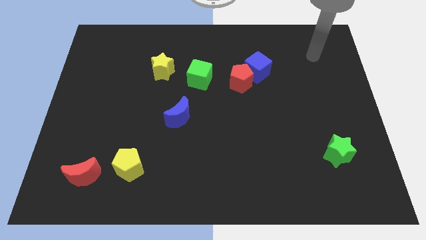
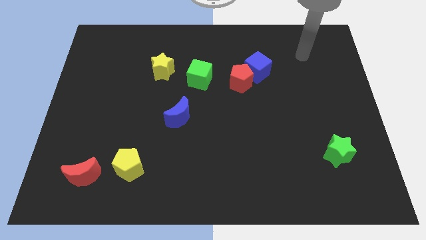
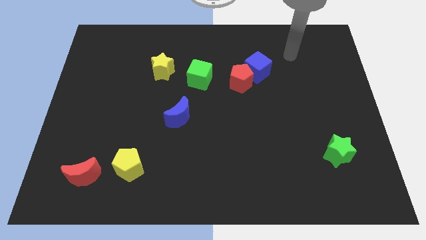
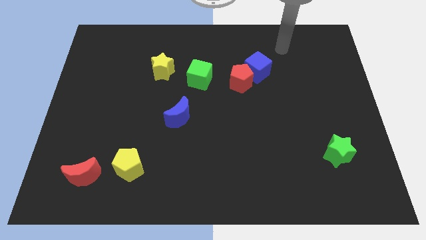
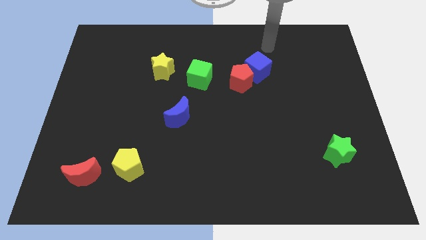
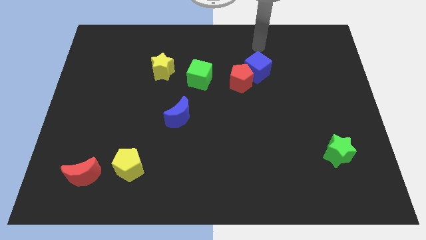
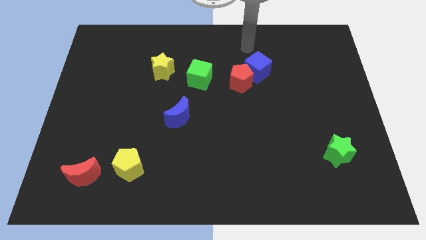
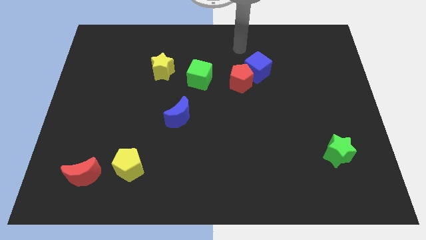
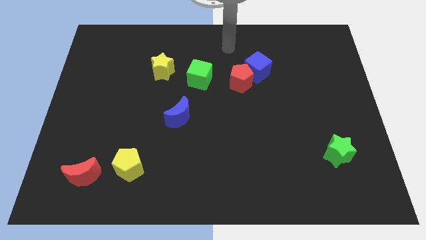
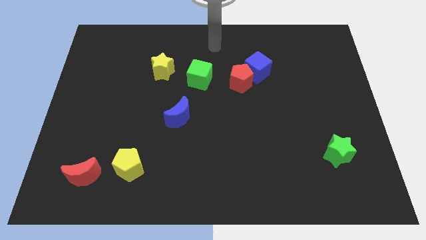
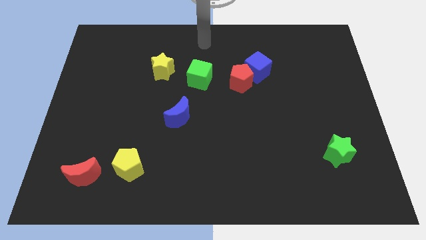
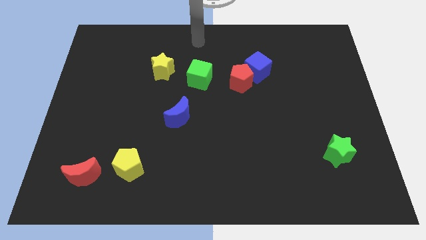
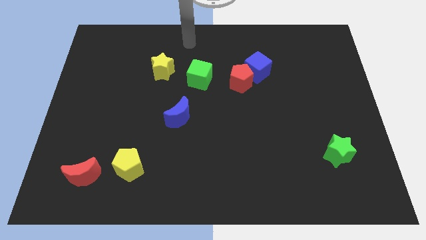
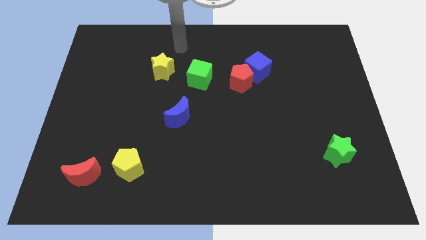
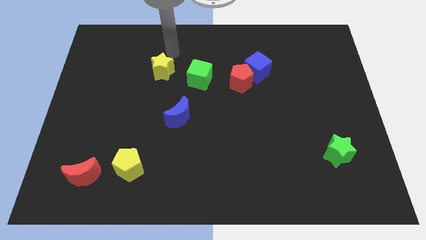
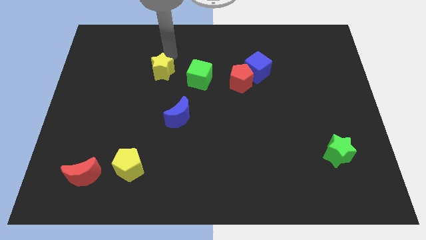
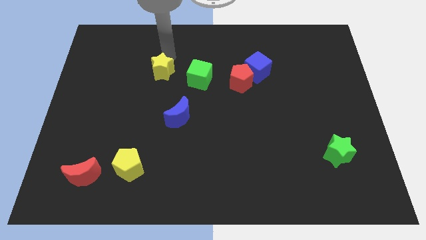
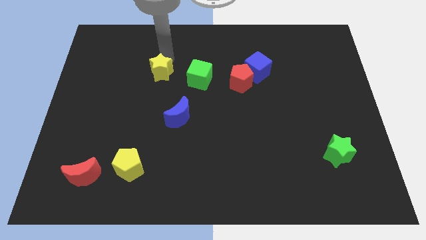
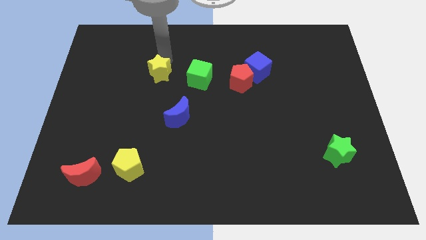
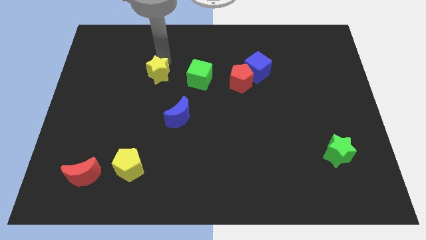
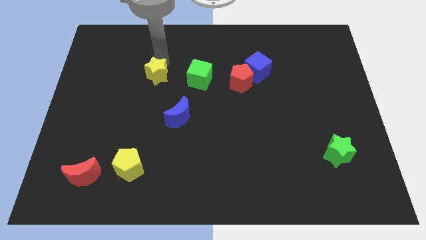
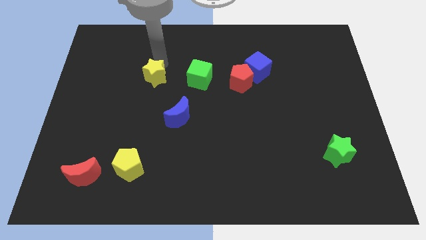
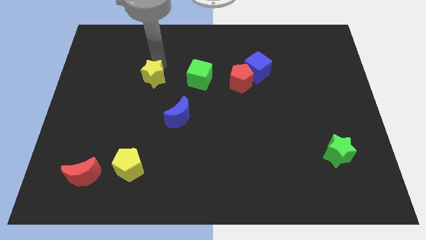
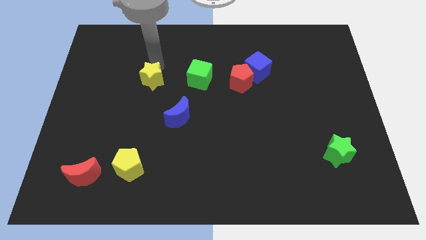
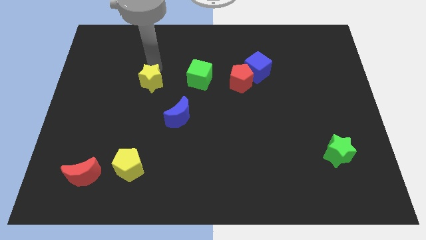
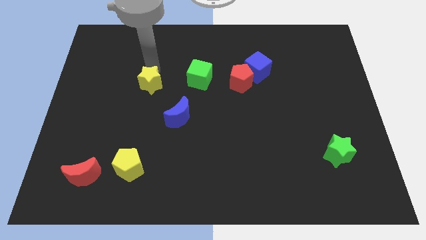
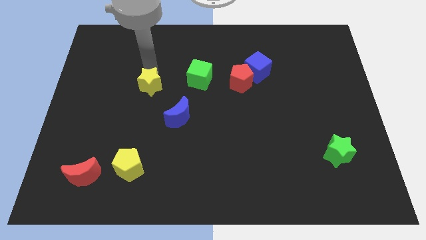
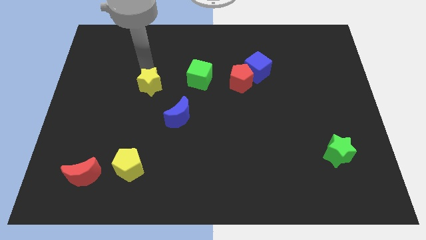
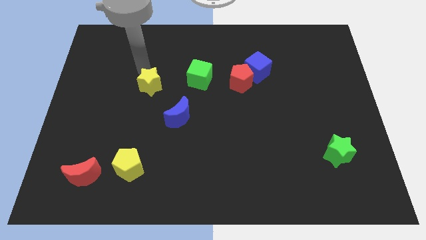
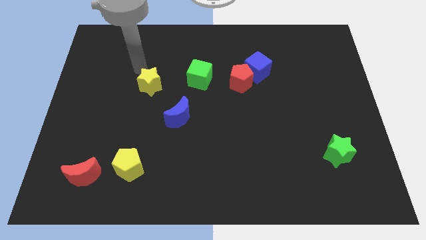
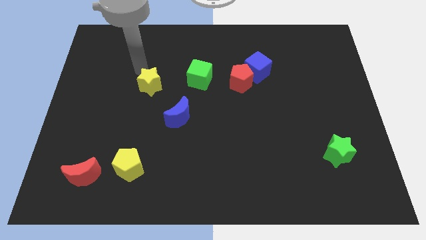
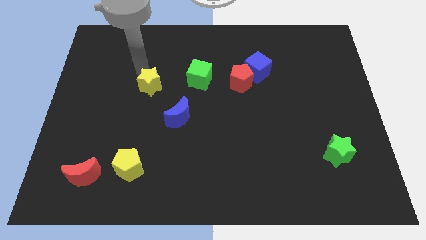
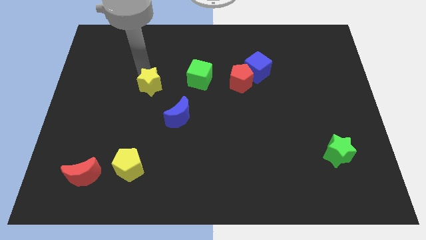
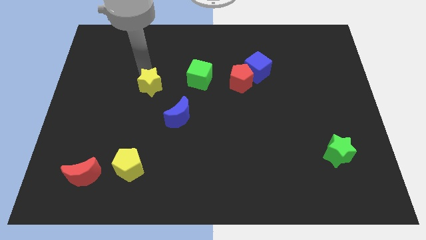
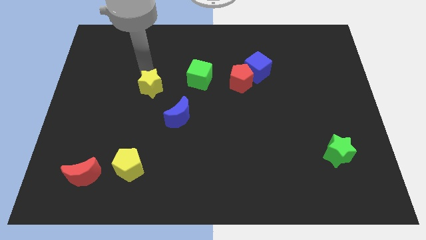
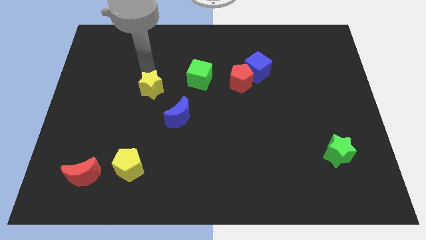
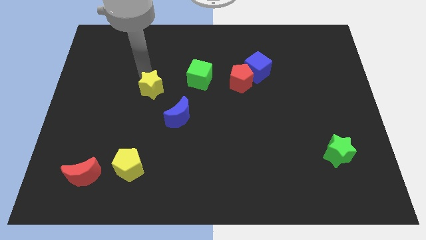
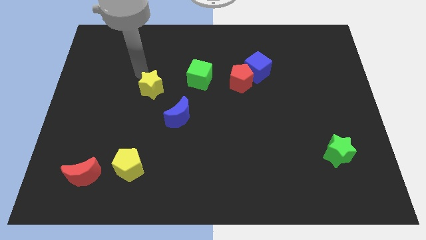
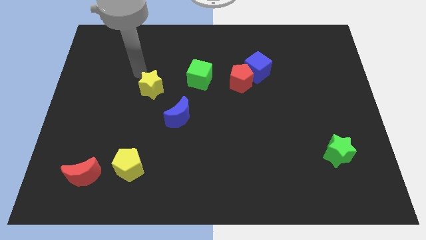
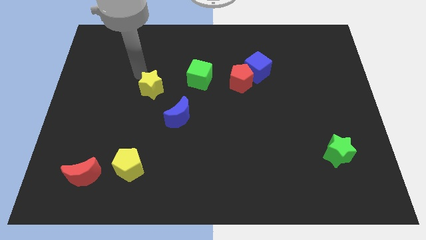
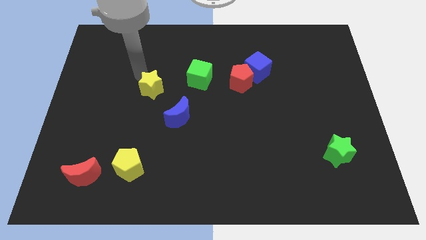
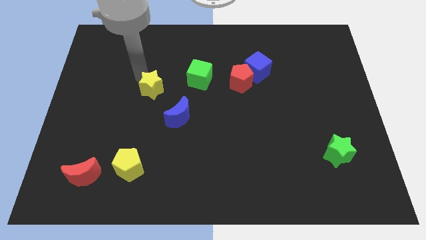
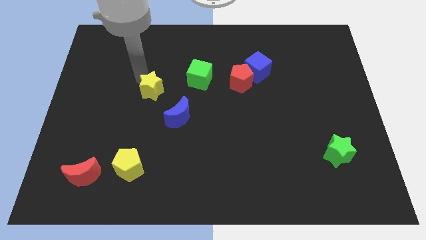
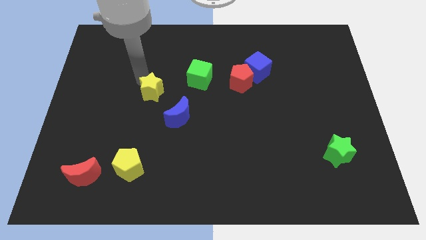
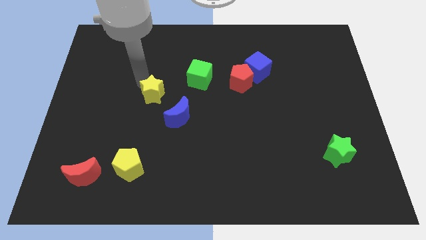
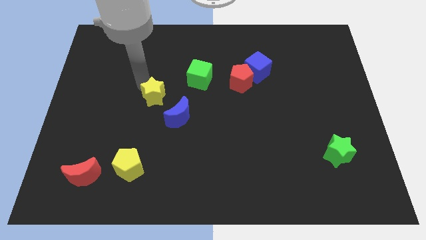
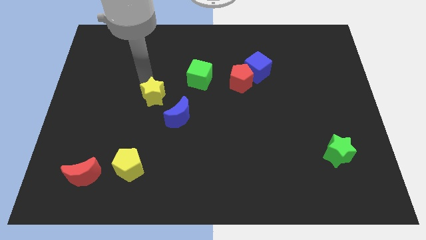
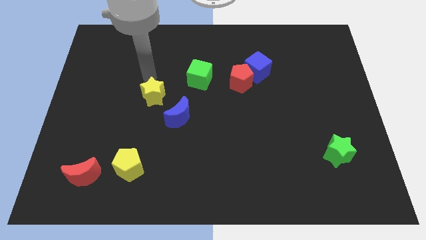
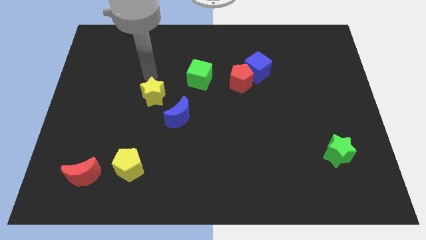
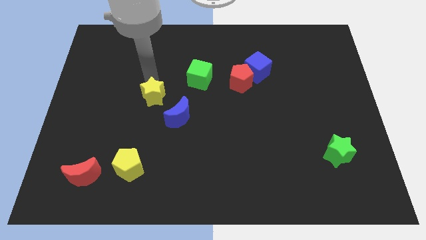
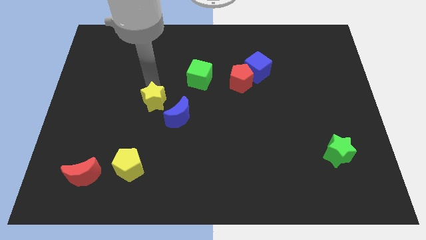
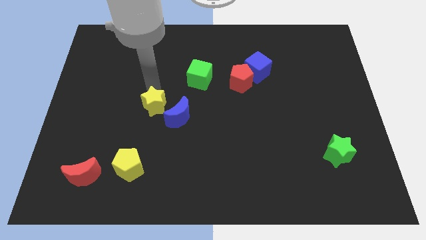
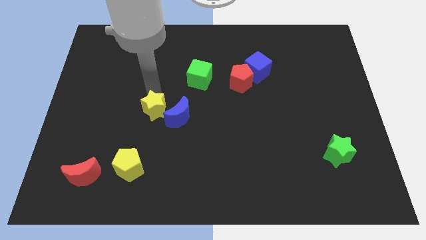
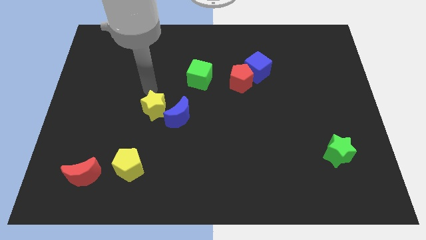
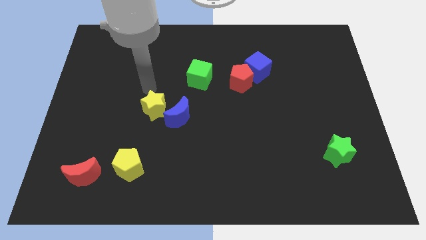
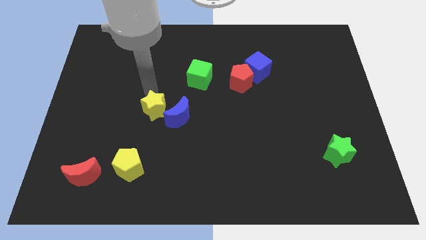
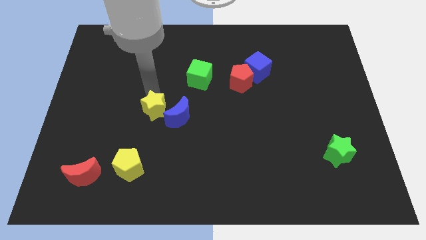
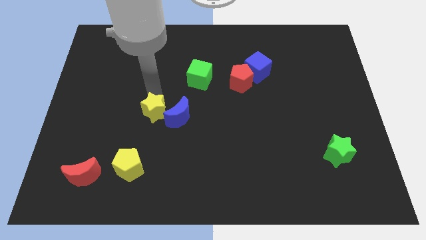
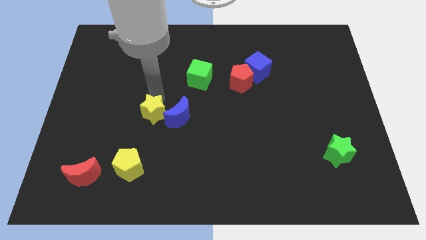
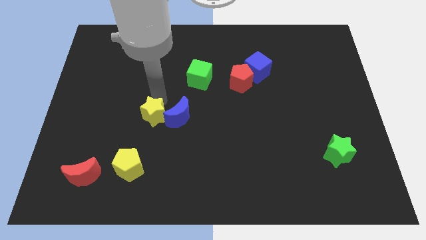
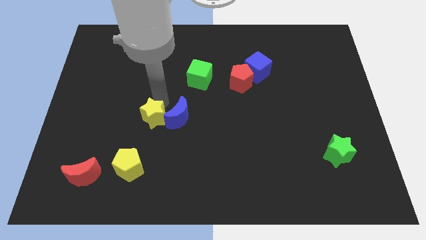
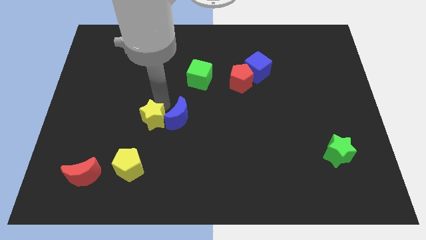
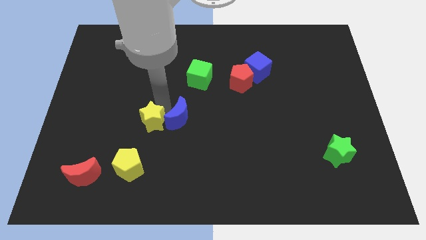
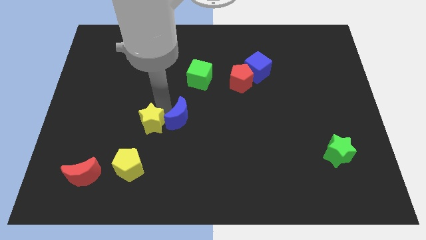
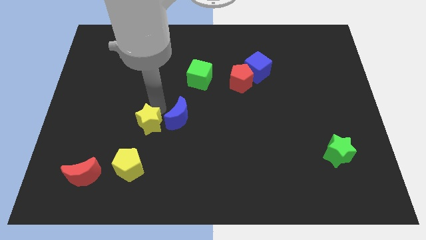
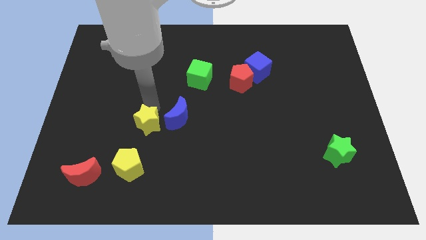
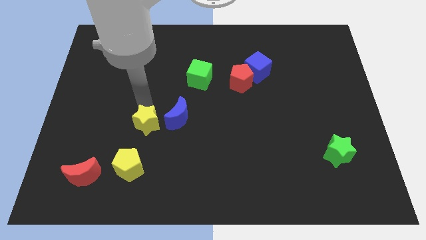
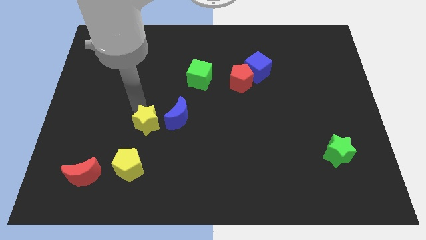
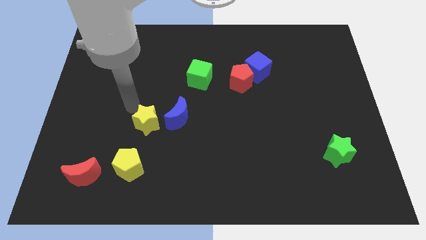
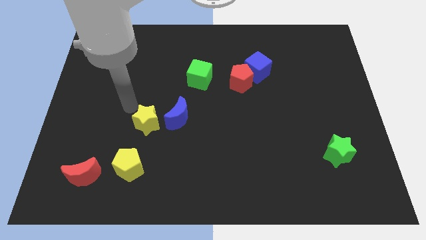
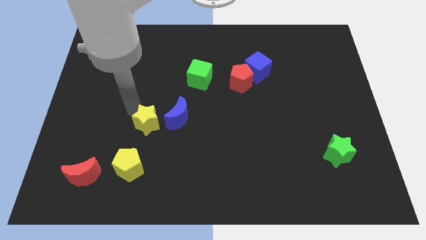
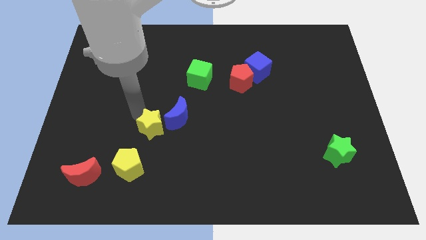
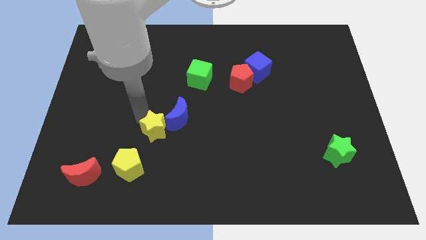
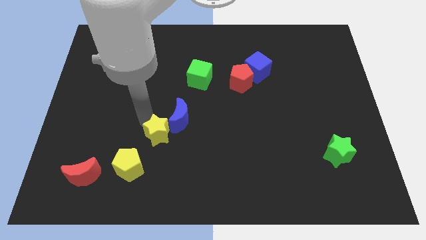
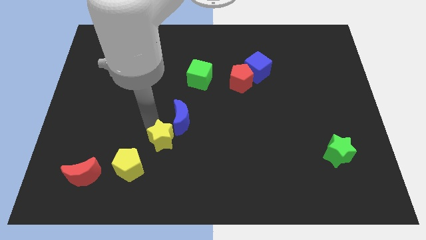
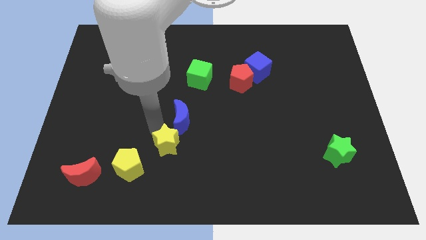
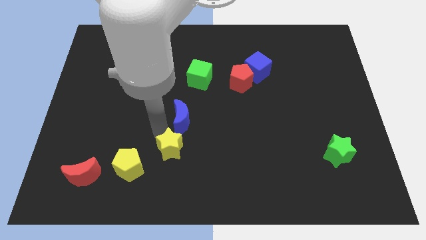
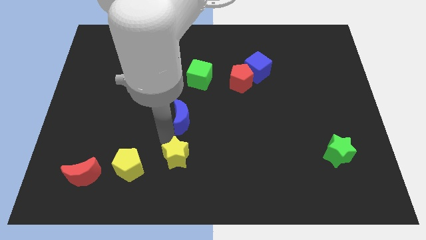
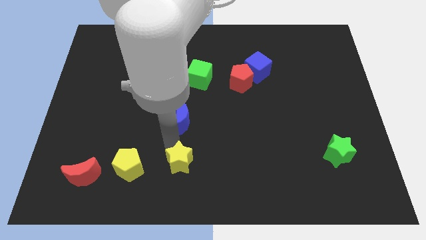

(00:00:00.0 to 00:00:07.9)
slide the yellow star to the bottom
